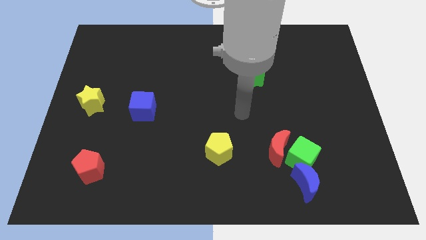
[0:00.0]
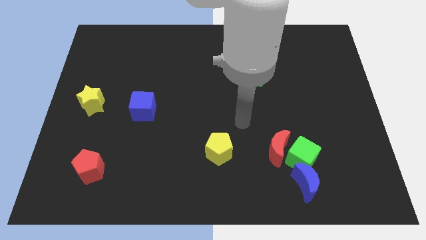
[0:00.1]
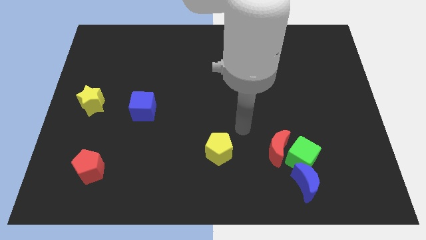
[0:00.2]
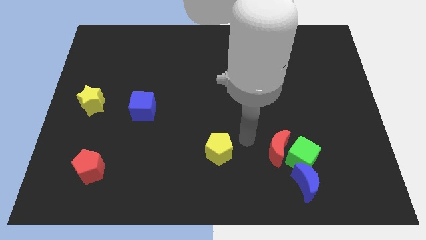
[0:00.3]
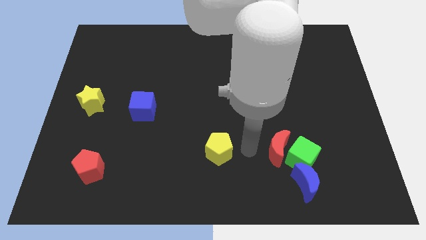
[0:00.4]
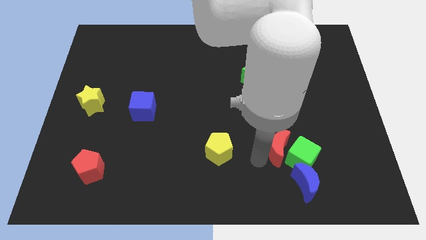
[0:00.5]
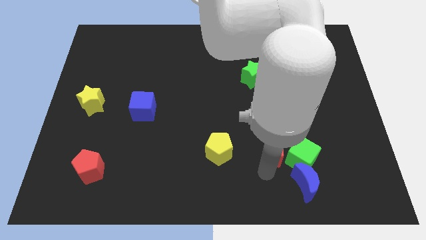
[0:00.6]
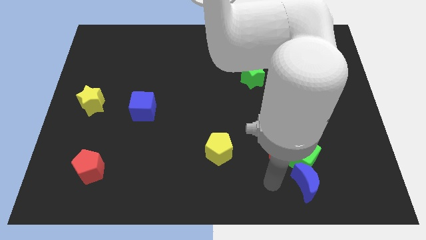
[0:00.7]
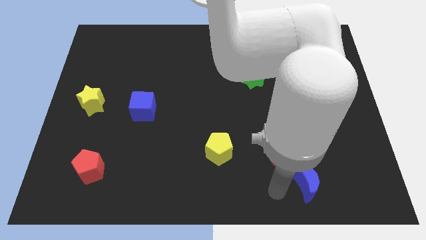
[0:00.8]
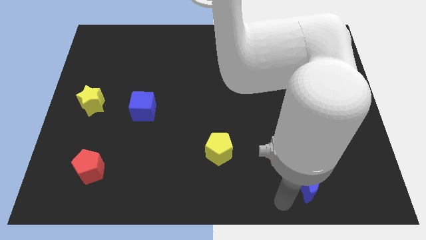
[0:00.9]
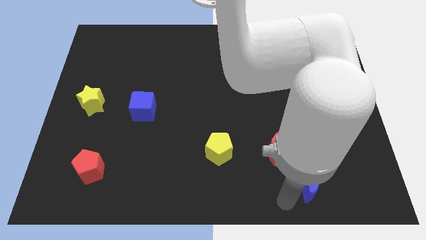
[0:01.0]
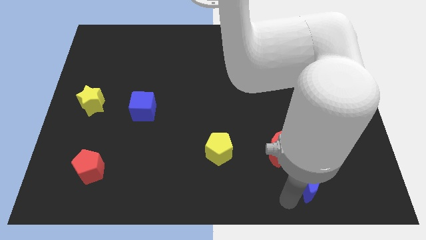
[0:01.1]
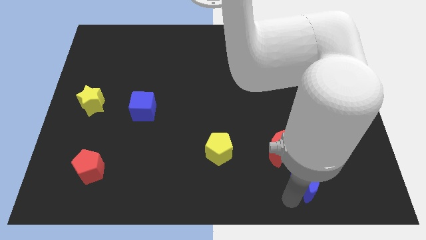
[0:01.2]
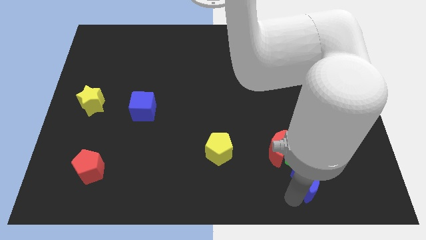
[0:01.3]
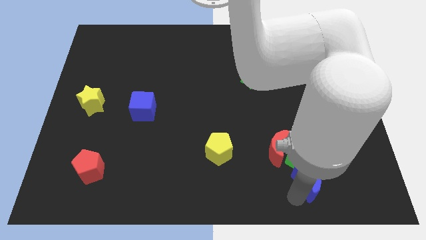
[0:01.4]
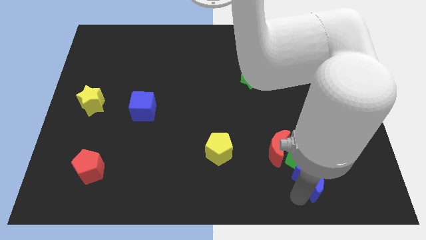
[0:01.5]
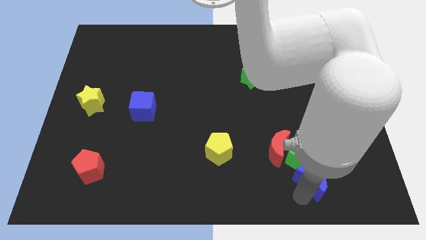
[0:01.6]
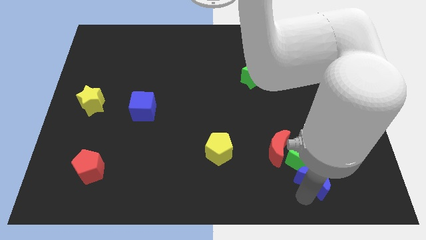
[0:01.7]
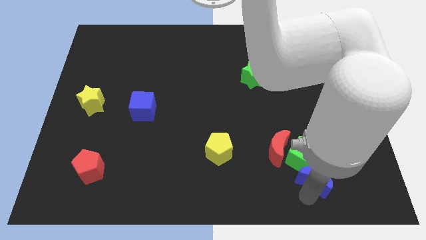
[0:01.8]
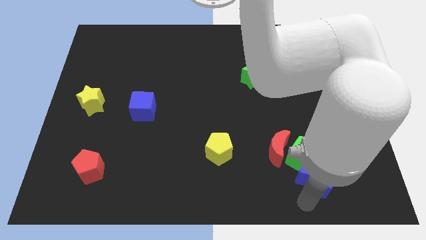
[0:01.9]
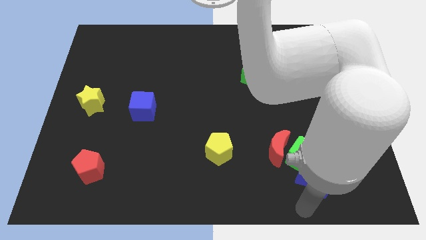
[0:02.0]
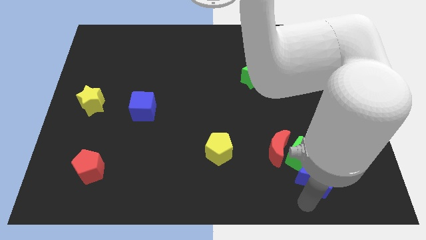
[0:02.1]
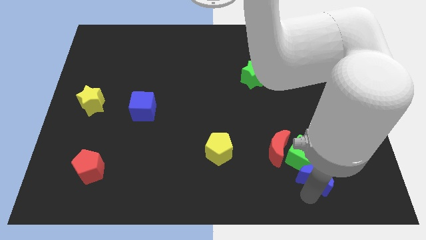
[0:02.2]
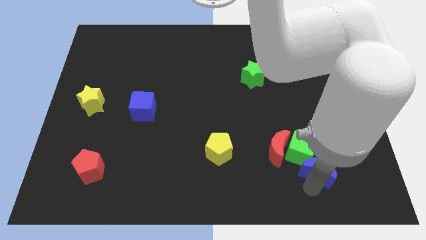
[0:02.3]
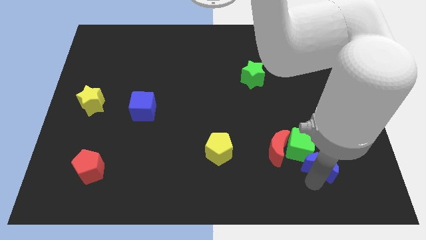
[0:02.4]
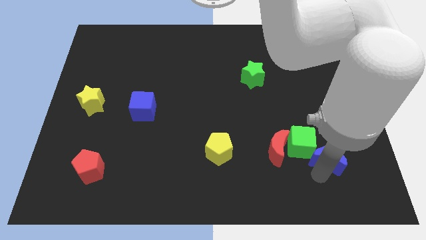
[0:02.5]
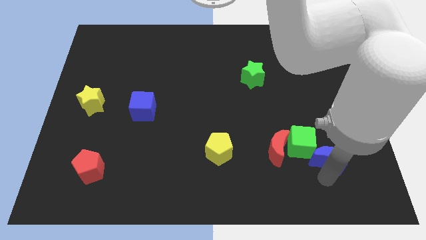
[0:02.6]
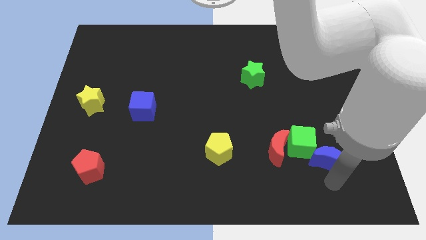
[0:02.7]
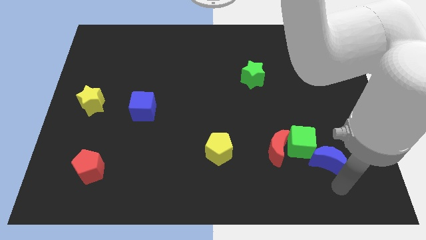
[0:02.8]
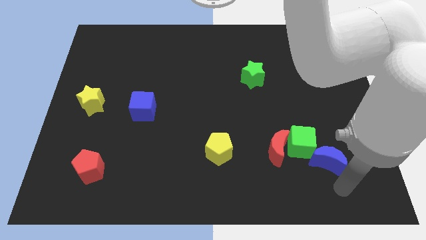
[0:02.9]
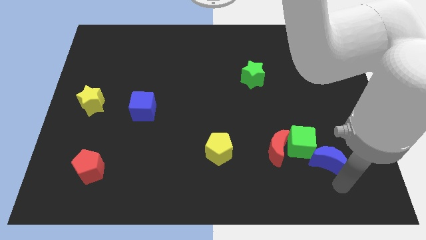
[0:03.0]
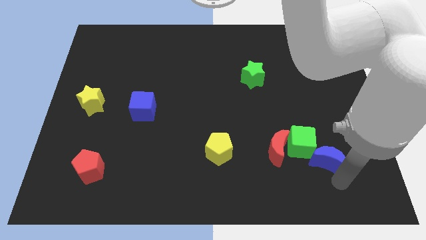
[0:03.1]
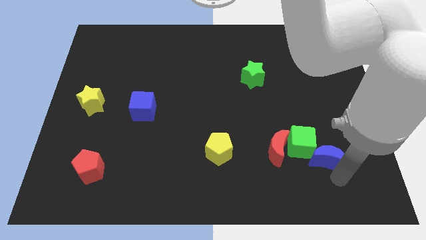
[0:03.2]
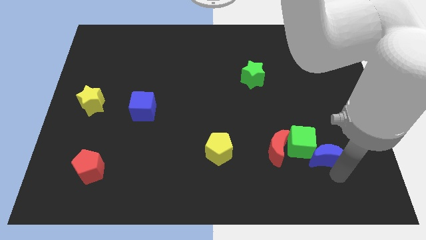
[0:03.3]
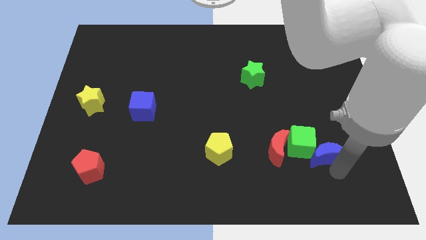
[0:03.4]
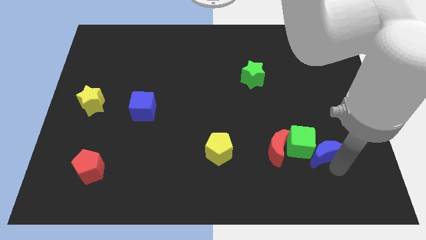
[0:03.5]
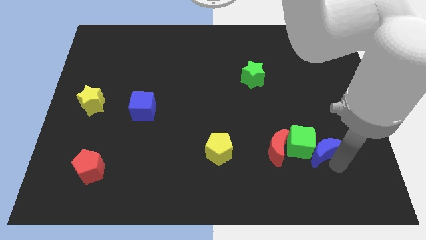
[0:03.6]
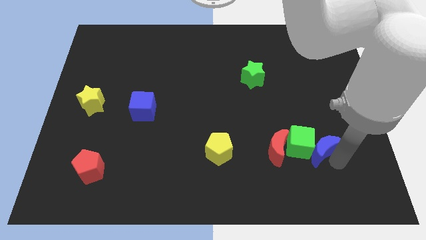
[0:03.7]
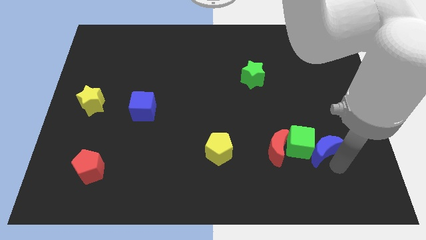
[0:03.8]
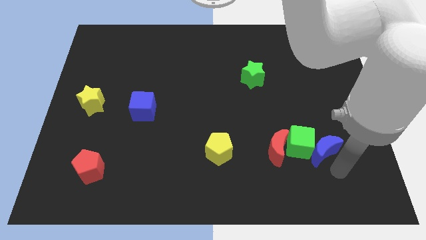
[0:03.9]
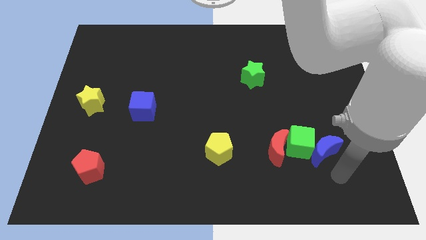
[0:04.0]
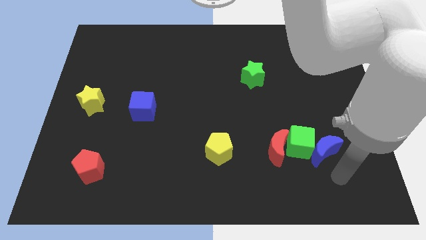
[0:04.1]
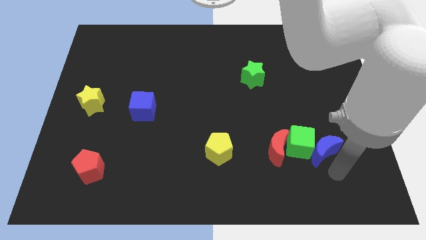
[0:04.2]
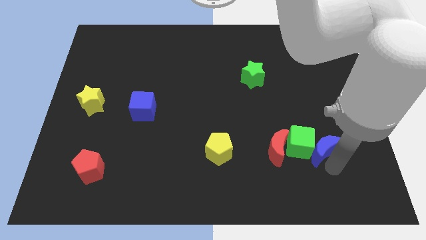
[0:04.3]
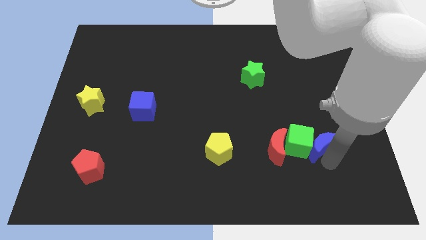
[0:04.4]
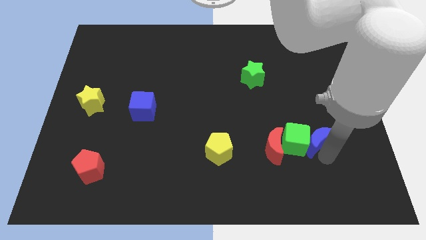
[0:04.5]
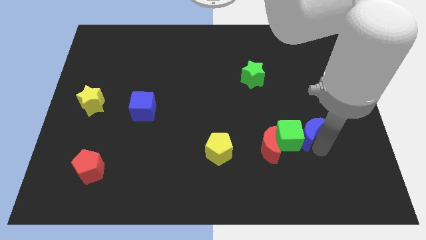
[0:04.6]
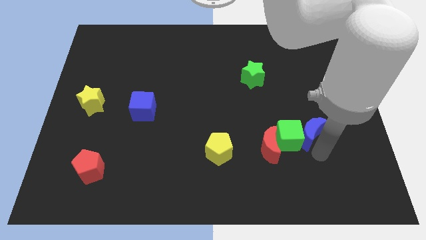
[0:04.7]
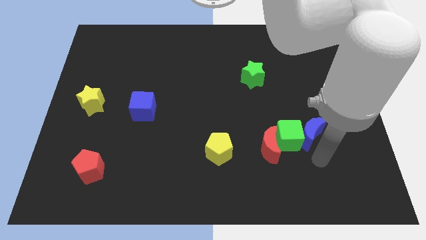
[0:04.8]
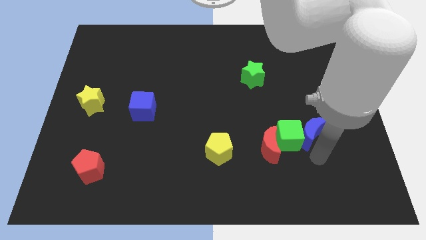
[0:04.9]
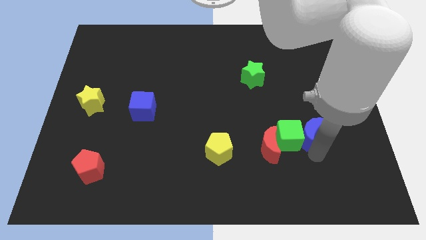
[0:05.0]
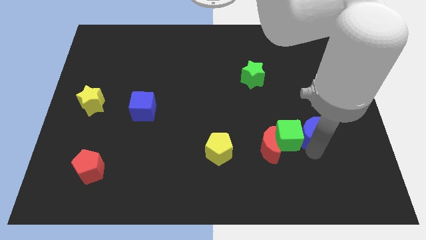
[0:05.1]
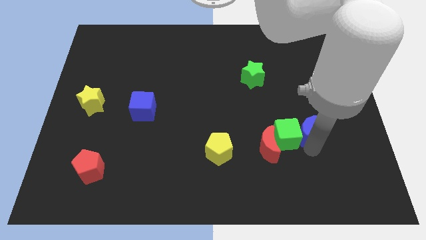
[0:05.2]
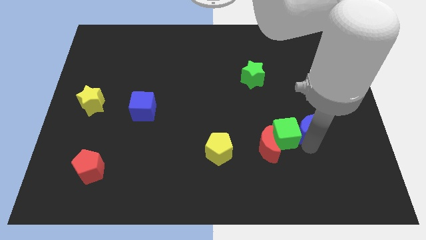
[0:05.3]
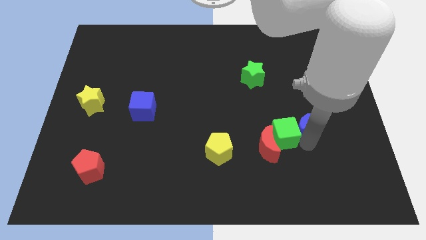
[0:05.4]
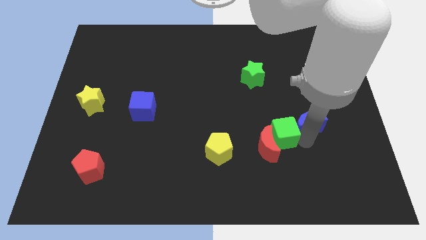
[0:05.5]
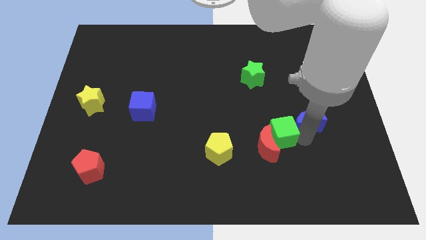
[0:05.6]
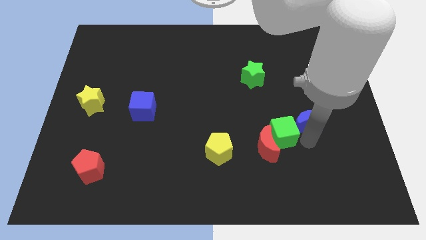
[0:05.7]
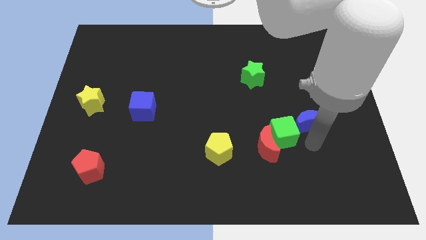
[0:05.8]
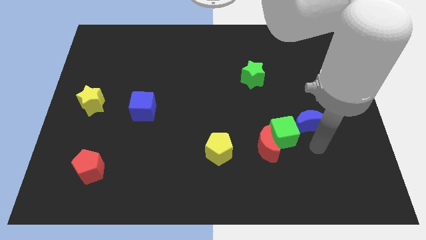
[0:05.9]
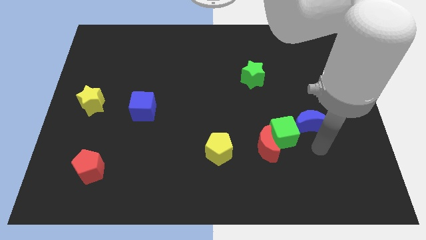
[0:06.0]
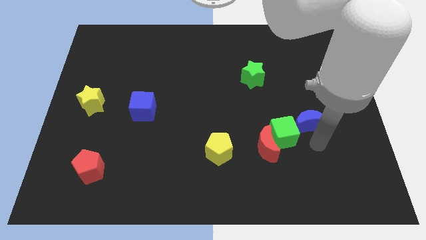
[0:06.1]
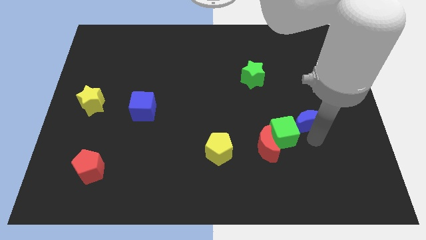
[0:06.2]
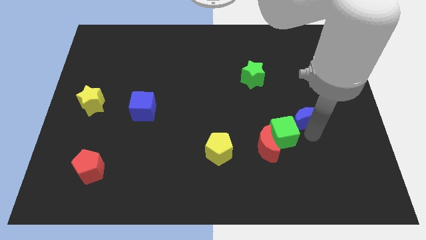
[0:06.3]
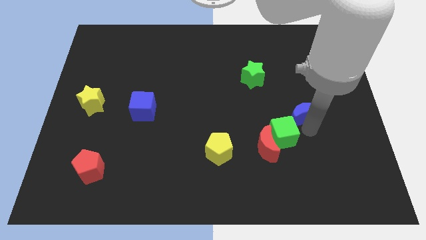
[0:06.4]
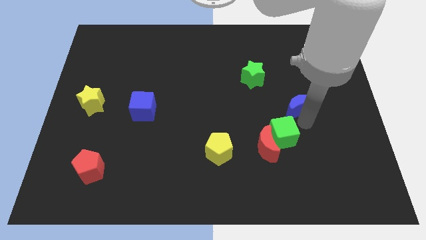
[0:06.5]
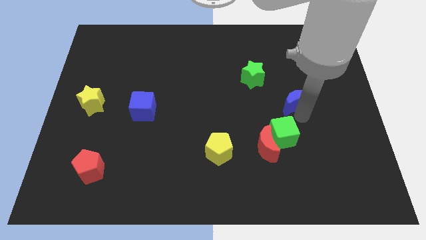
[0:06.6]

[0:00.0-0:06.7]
push the blue moon upwards

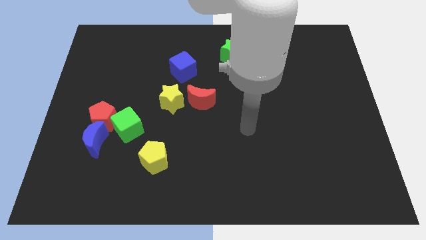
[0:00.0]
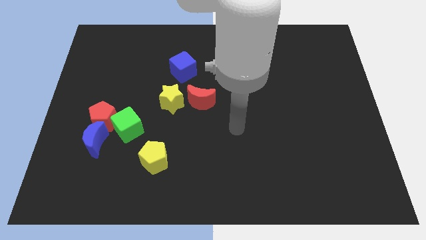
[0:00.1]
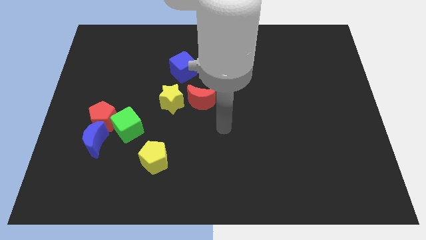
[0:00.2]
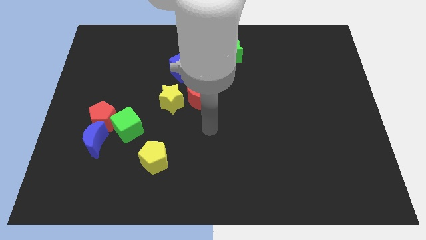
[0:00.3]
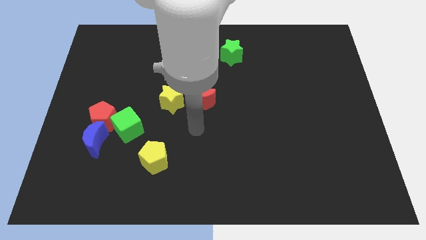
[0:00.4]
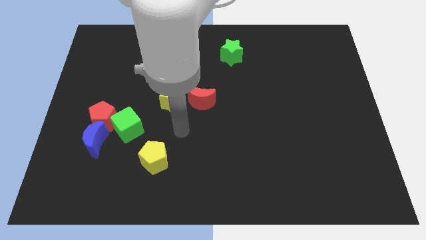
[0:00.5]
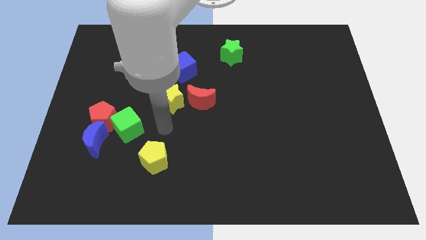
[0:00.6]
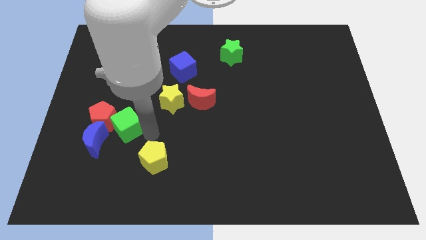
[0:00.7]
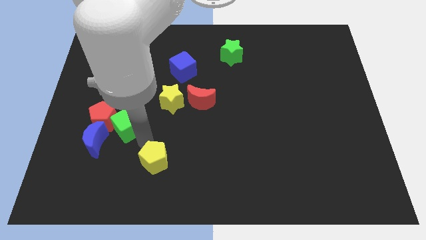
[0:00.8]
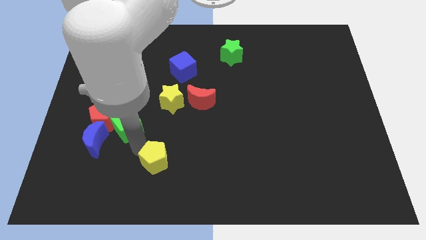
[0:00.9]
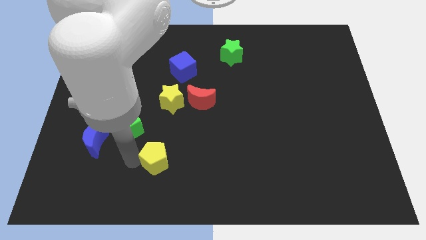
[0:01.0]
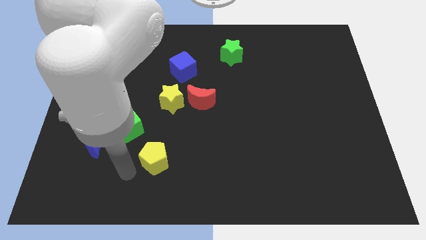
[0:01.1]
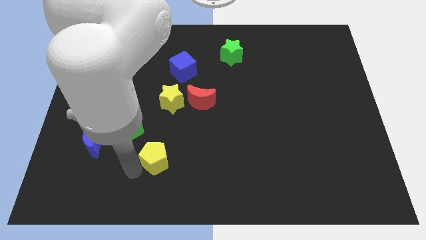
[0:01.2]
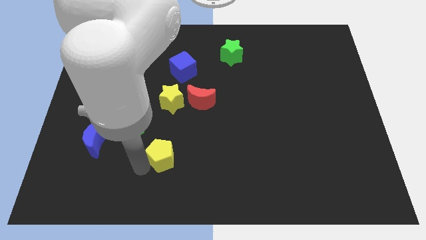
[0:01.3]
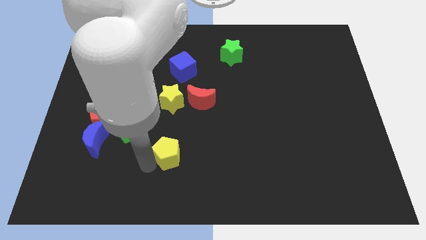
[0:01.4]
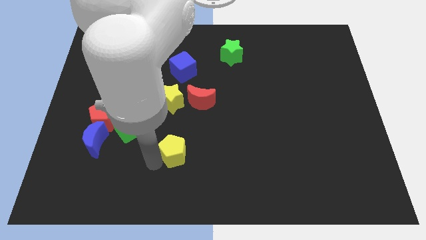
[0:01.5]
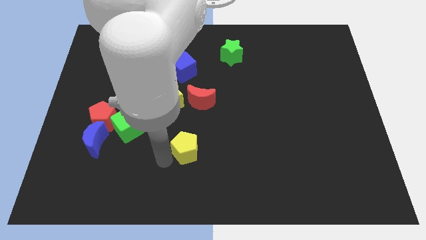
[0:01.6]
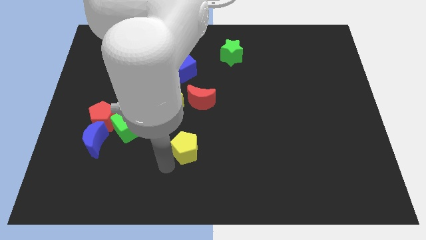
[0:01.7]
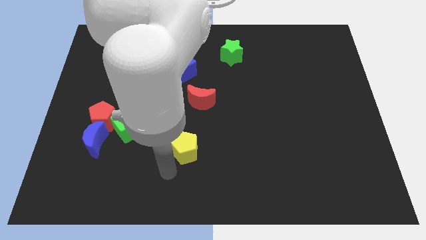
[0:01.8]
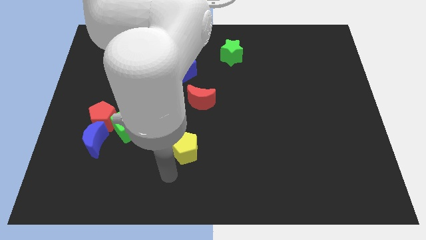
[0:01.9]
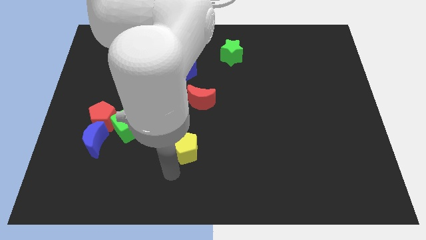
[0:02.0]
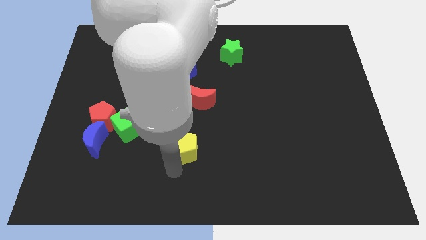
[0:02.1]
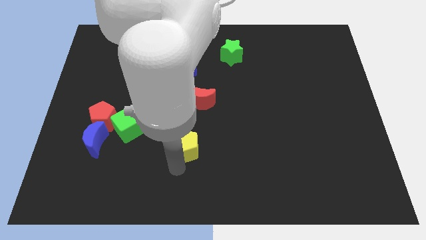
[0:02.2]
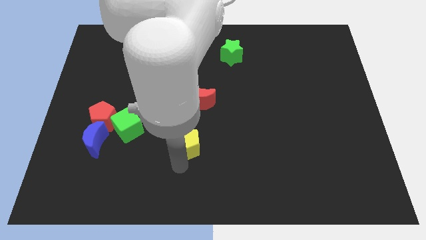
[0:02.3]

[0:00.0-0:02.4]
push the yellow pentagon diagonally upwards and right a little
